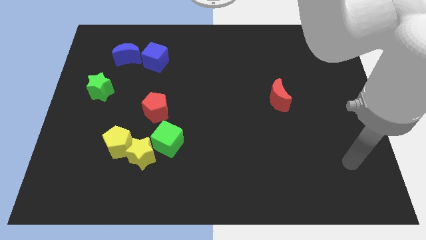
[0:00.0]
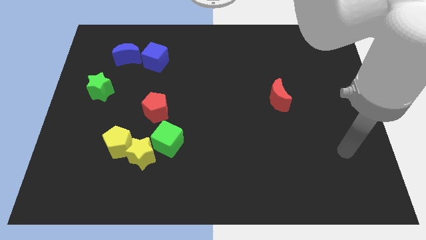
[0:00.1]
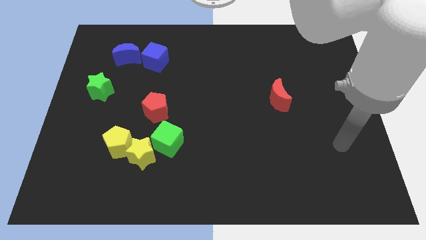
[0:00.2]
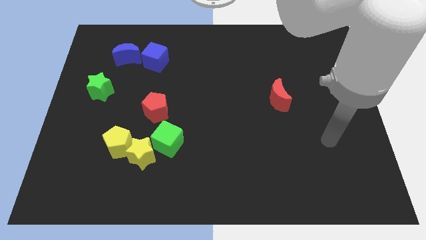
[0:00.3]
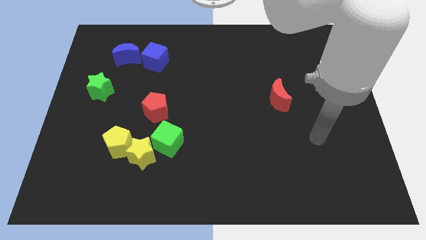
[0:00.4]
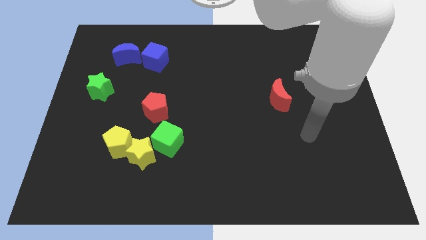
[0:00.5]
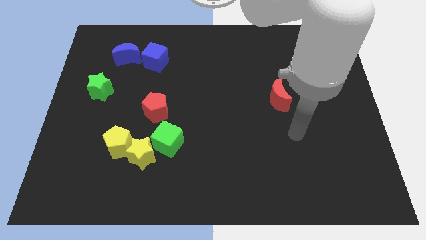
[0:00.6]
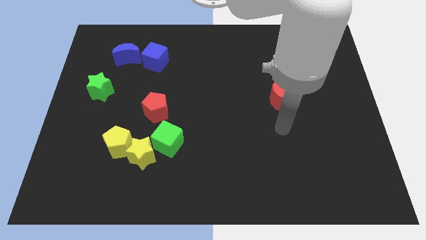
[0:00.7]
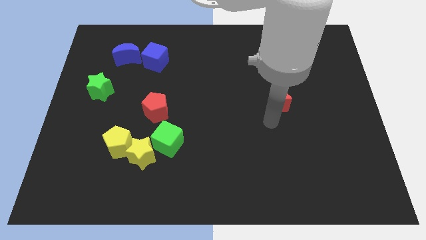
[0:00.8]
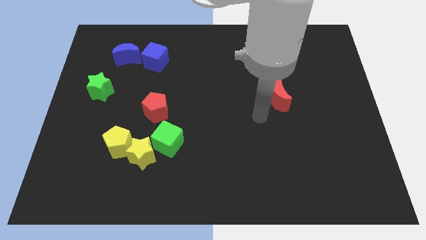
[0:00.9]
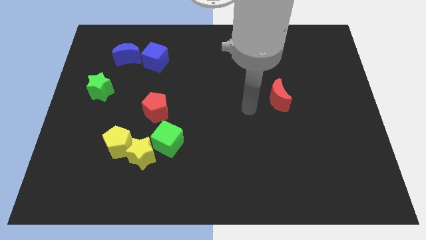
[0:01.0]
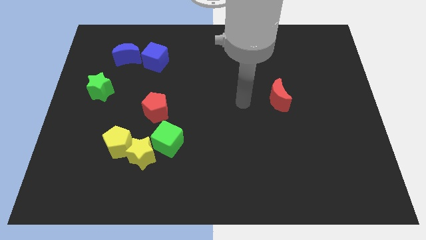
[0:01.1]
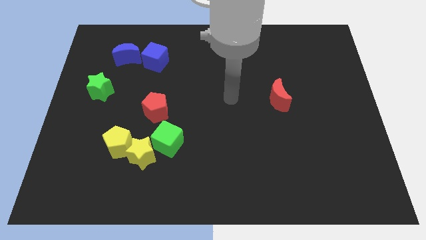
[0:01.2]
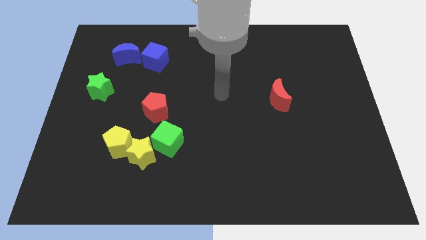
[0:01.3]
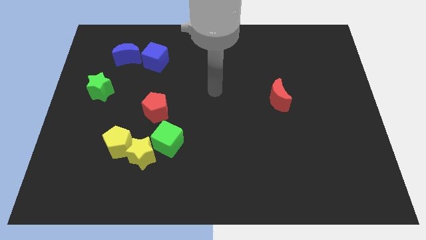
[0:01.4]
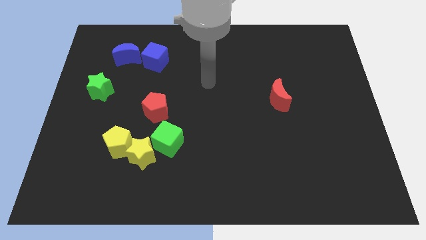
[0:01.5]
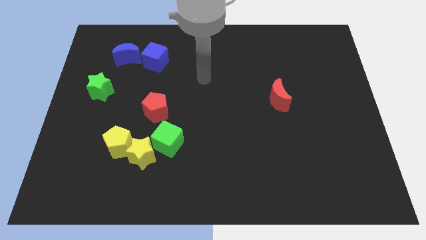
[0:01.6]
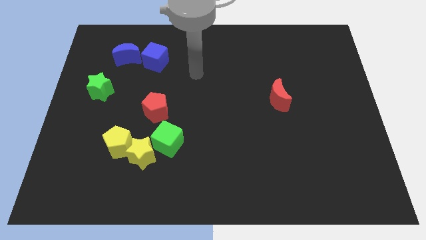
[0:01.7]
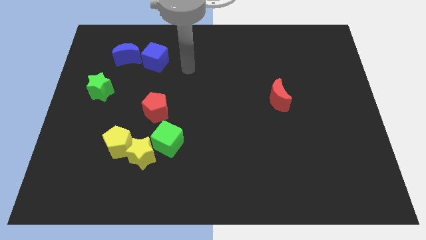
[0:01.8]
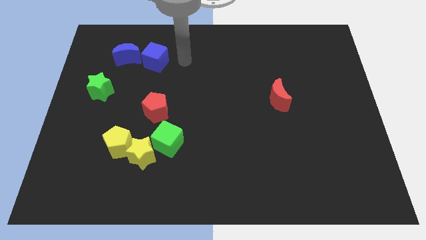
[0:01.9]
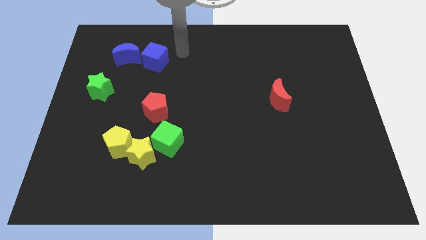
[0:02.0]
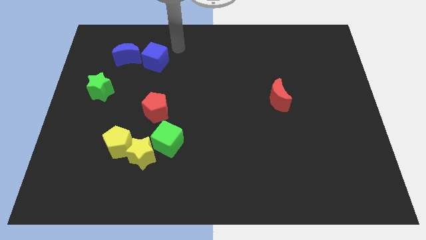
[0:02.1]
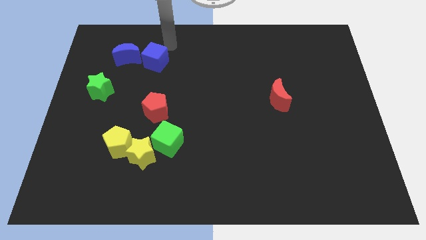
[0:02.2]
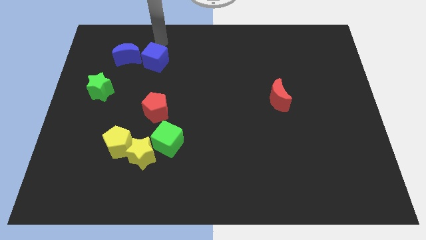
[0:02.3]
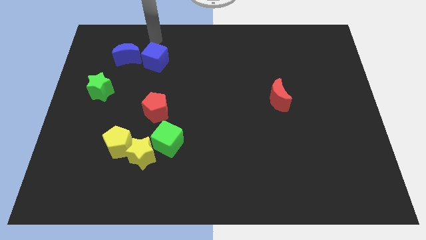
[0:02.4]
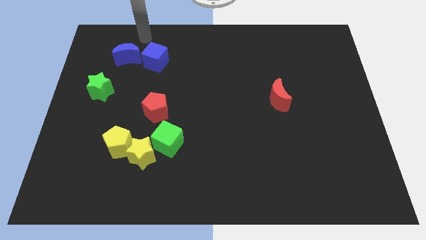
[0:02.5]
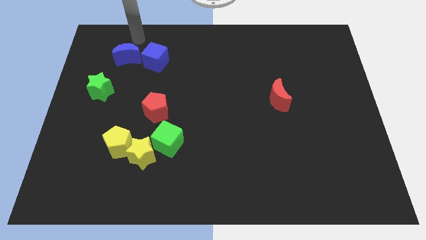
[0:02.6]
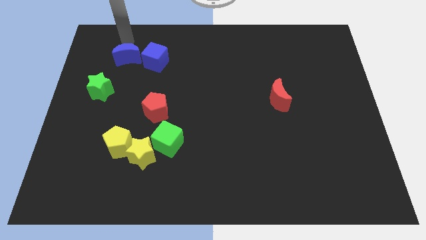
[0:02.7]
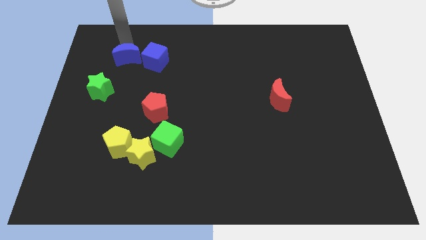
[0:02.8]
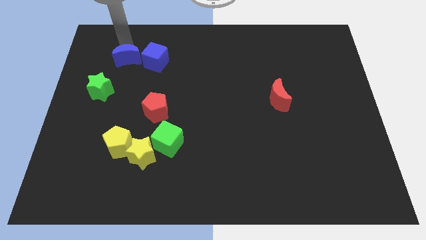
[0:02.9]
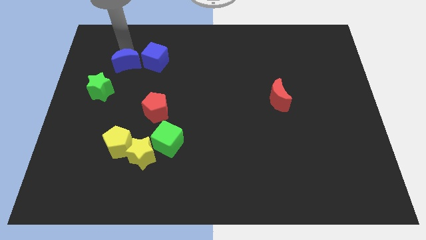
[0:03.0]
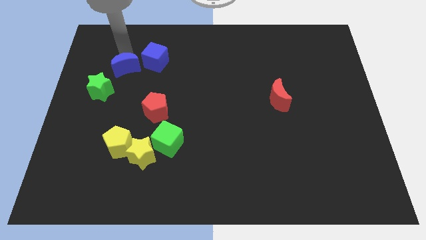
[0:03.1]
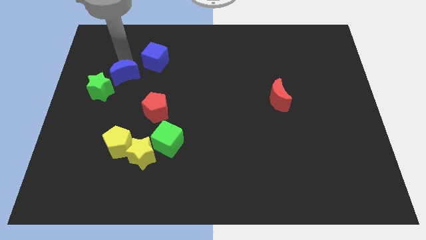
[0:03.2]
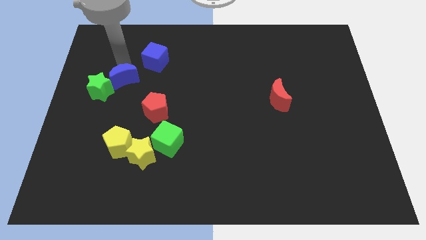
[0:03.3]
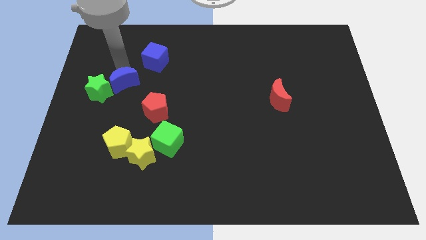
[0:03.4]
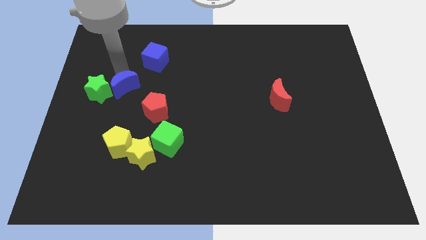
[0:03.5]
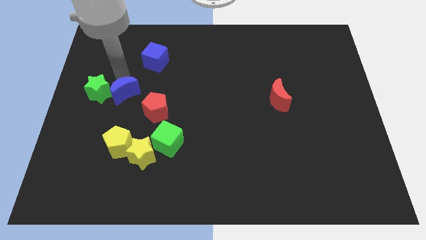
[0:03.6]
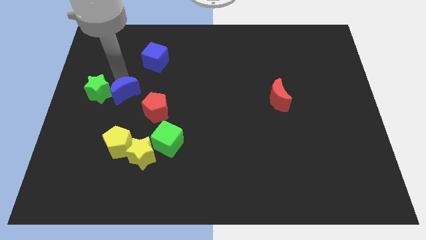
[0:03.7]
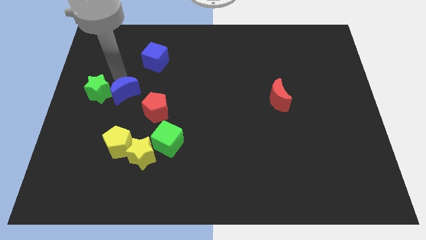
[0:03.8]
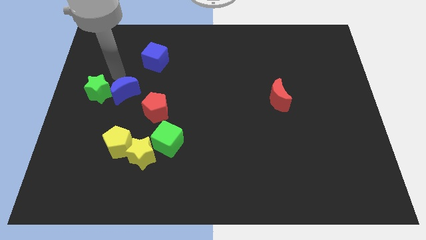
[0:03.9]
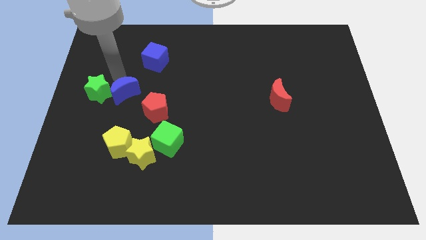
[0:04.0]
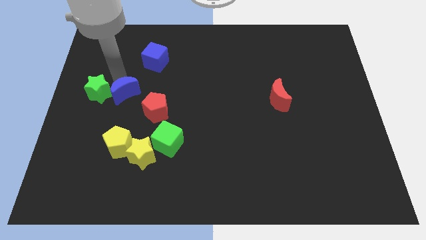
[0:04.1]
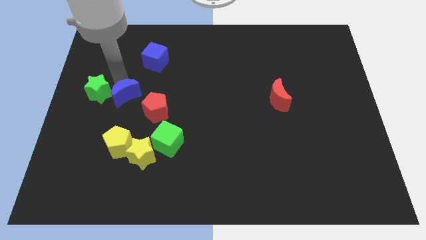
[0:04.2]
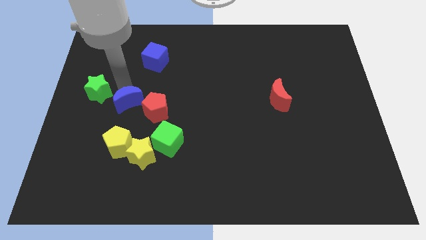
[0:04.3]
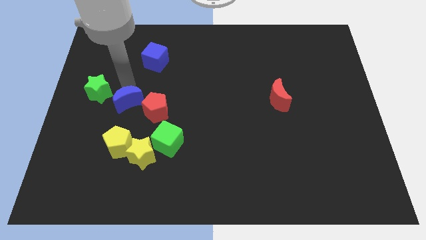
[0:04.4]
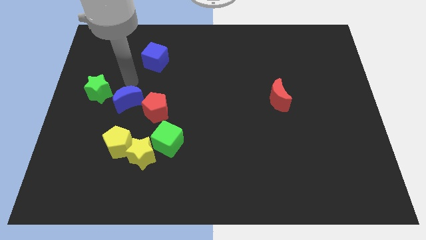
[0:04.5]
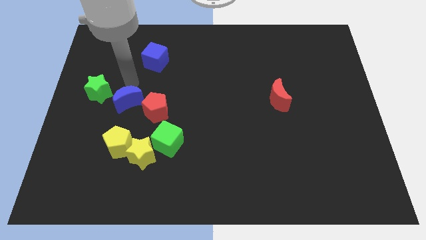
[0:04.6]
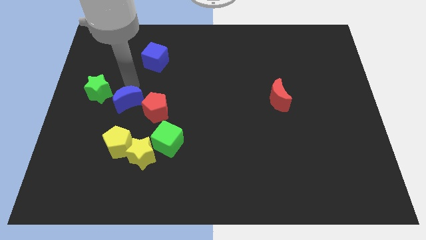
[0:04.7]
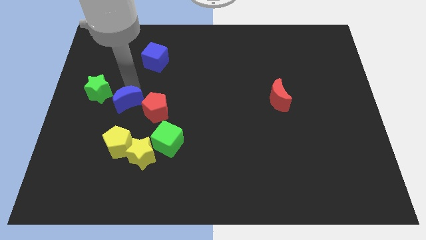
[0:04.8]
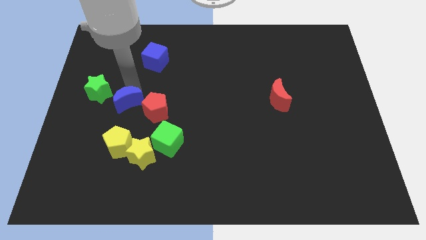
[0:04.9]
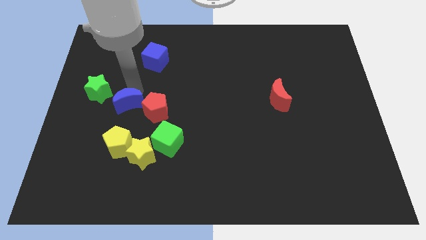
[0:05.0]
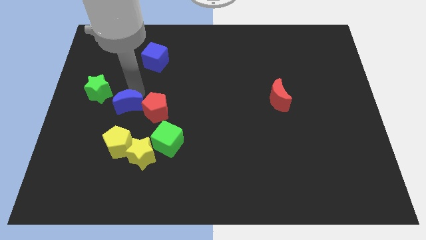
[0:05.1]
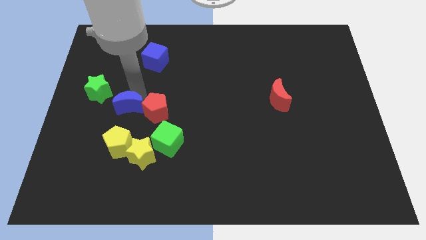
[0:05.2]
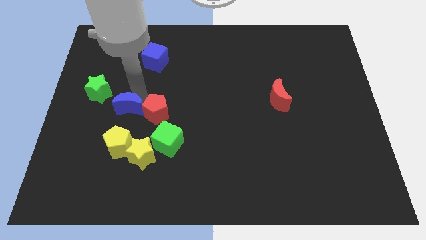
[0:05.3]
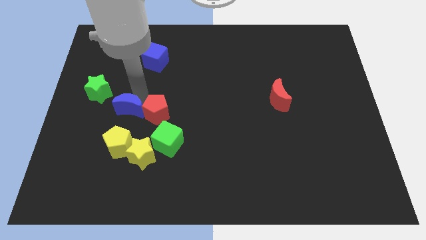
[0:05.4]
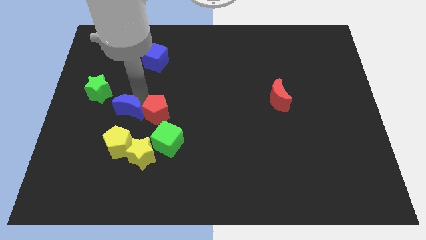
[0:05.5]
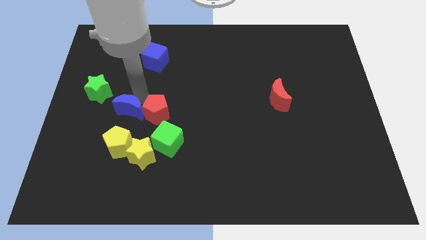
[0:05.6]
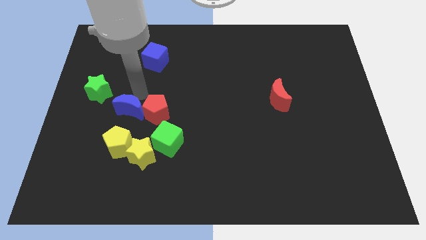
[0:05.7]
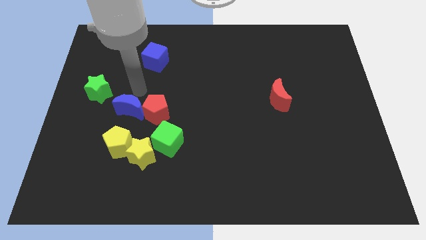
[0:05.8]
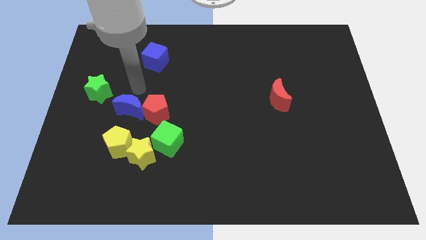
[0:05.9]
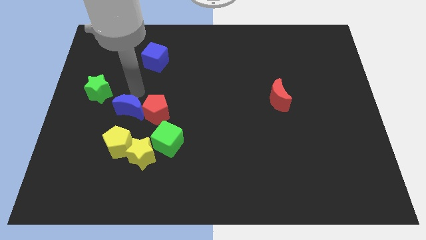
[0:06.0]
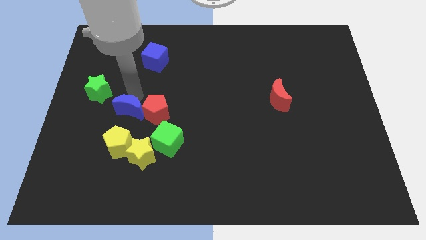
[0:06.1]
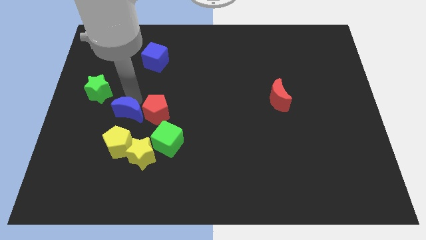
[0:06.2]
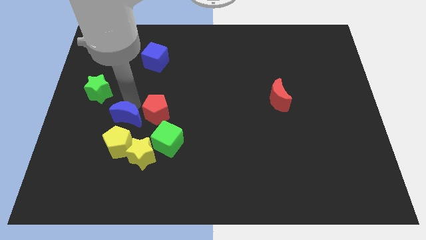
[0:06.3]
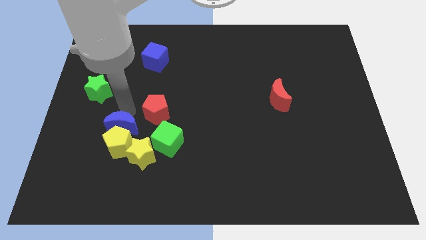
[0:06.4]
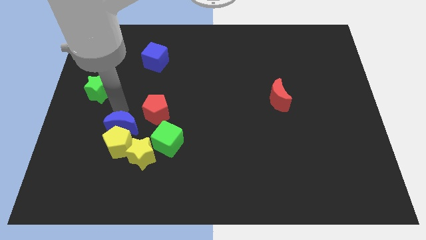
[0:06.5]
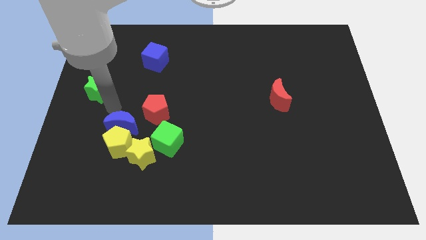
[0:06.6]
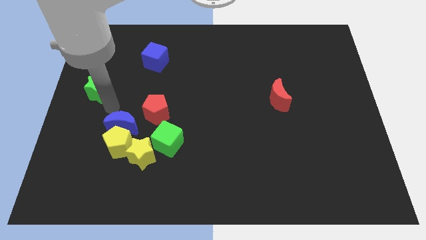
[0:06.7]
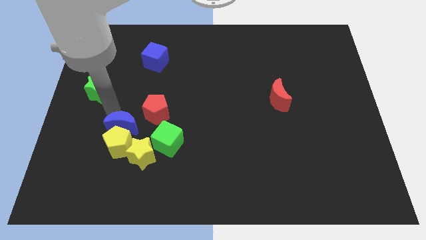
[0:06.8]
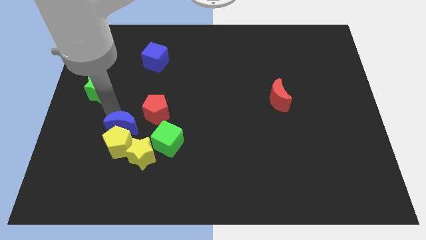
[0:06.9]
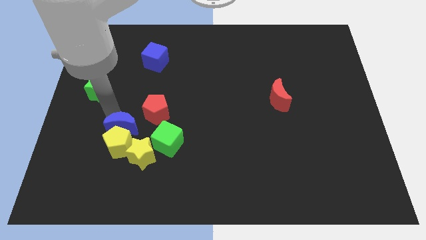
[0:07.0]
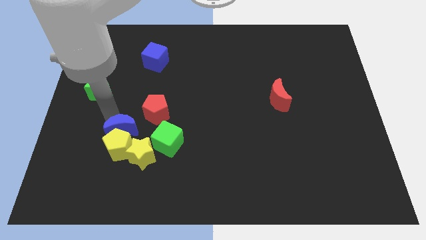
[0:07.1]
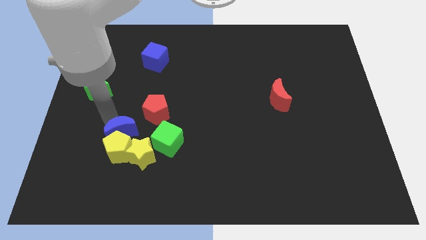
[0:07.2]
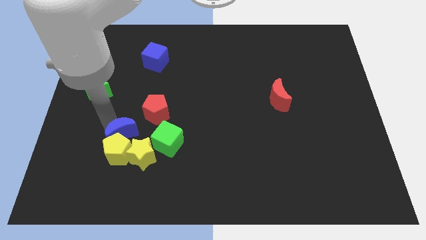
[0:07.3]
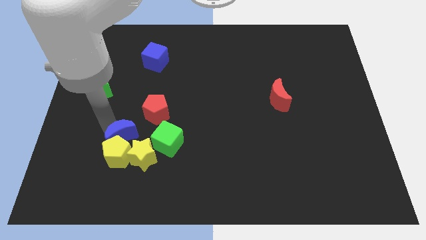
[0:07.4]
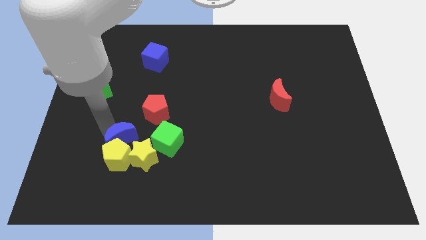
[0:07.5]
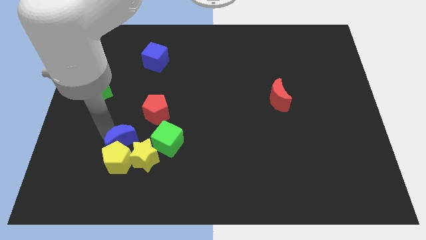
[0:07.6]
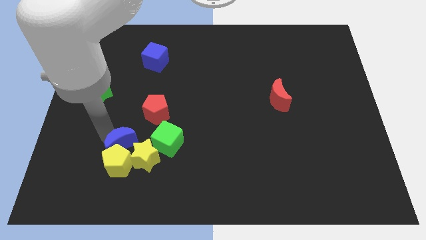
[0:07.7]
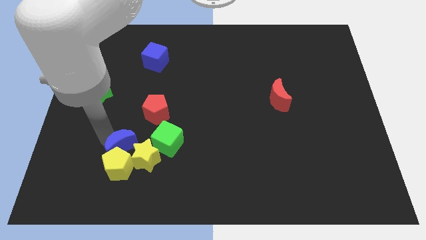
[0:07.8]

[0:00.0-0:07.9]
put the blue moon close to the yellow star
